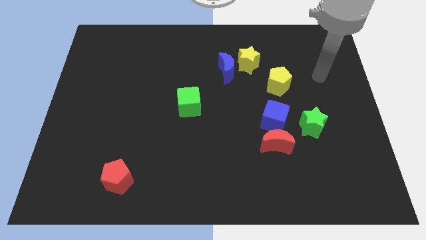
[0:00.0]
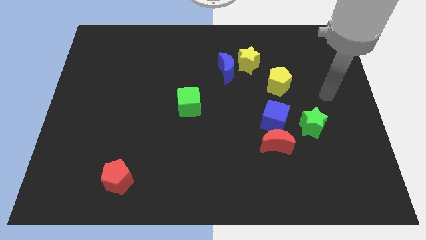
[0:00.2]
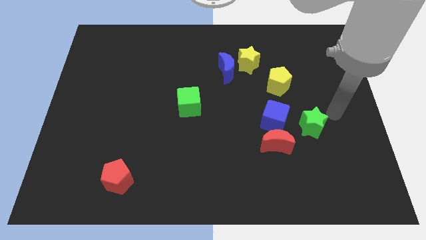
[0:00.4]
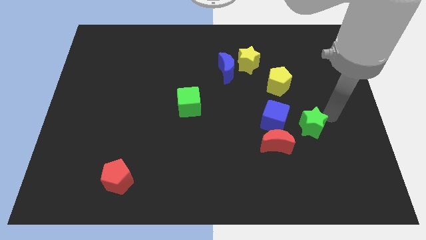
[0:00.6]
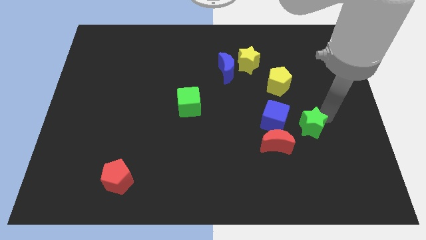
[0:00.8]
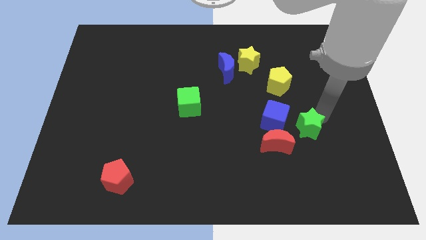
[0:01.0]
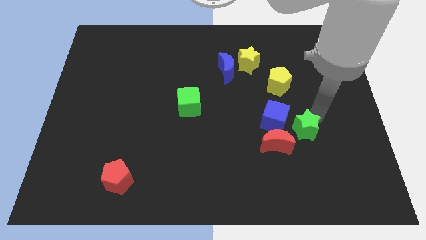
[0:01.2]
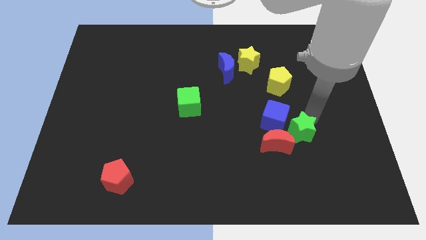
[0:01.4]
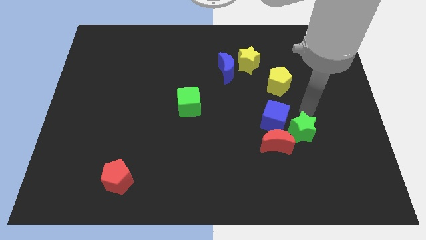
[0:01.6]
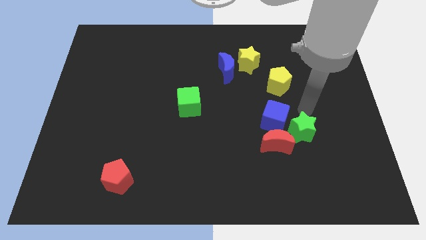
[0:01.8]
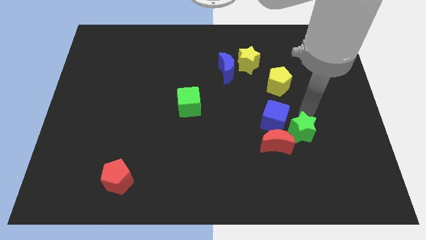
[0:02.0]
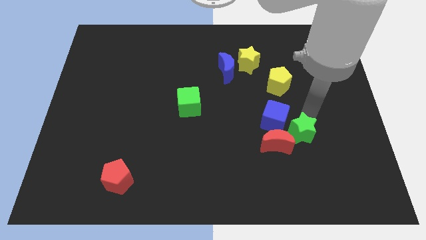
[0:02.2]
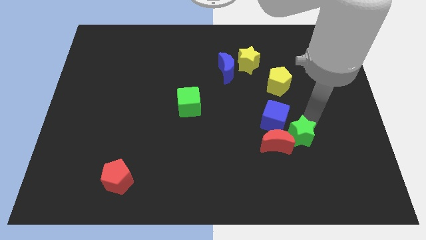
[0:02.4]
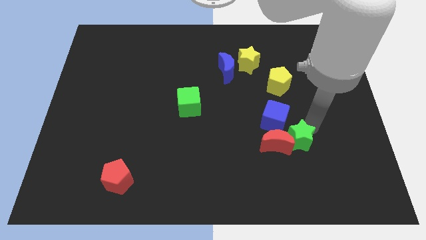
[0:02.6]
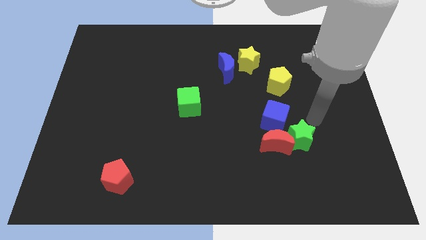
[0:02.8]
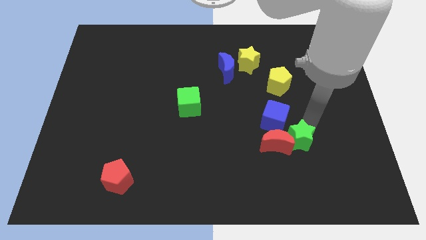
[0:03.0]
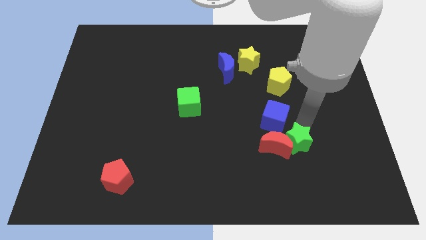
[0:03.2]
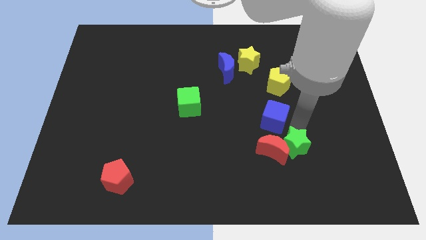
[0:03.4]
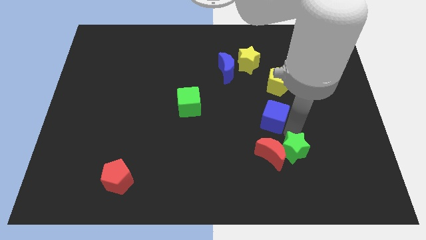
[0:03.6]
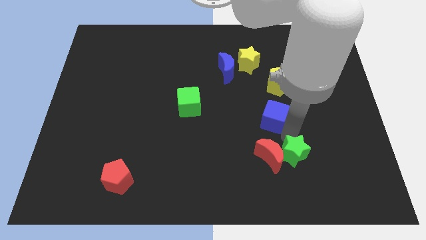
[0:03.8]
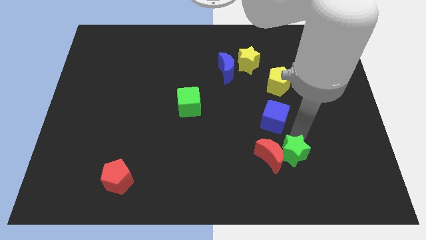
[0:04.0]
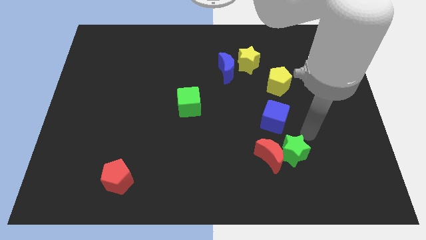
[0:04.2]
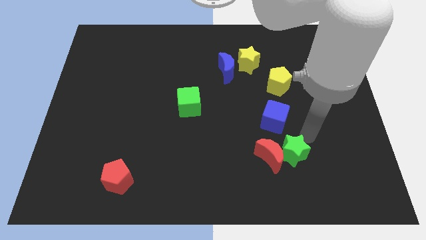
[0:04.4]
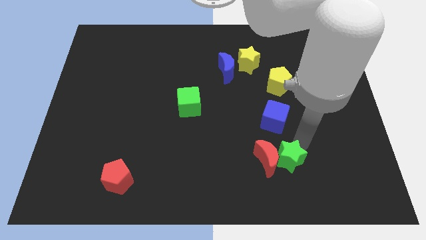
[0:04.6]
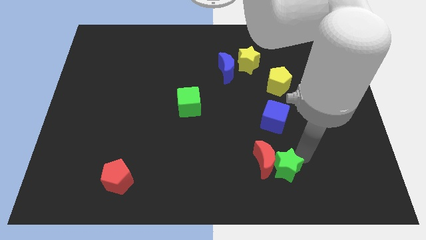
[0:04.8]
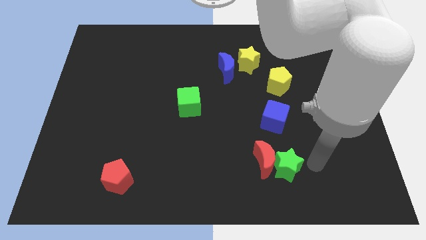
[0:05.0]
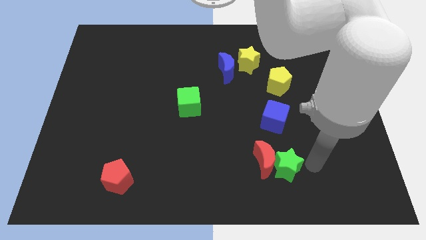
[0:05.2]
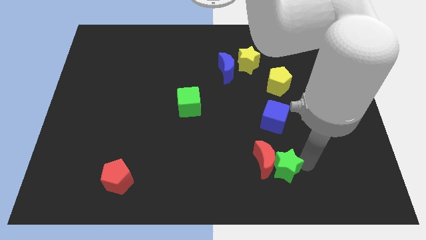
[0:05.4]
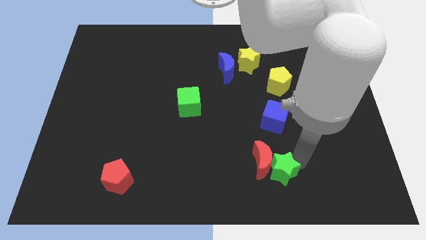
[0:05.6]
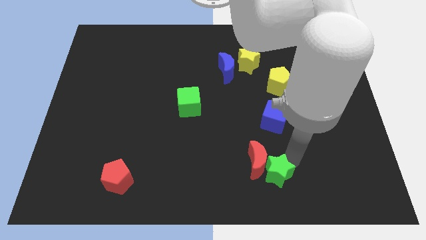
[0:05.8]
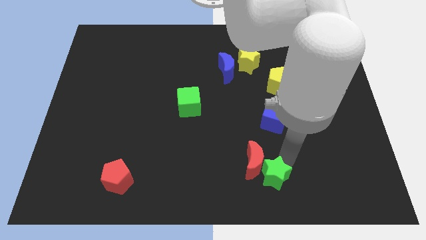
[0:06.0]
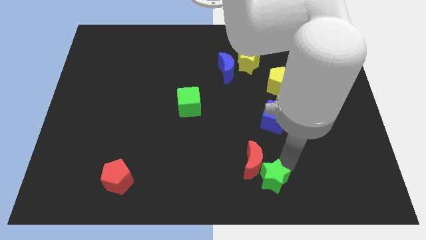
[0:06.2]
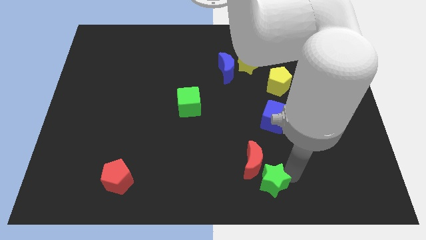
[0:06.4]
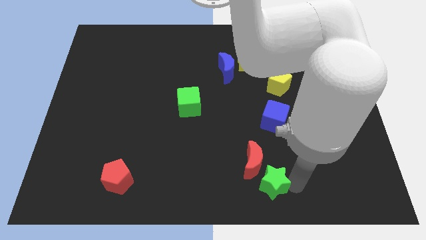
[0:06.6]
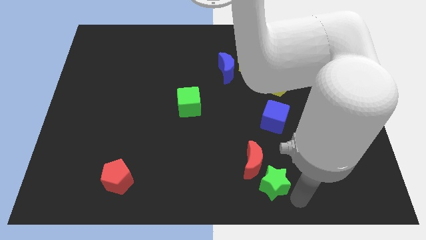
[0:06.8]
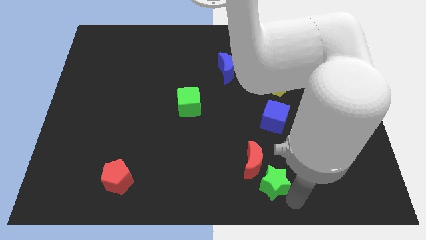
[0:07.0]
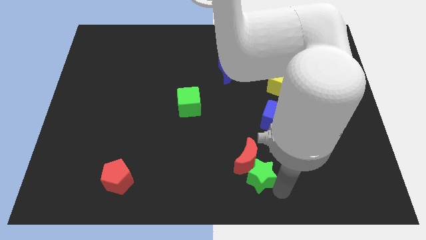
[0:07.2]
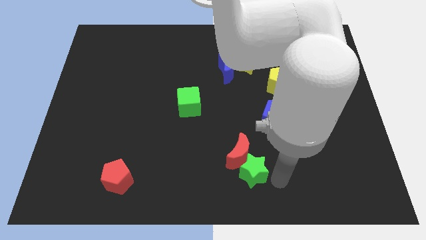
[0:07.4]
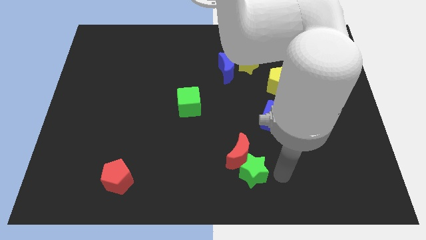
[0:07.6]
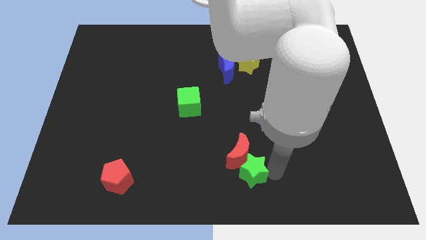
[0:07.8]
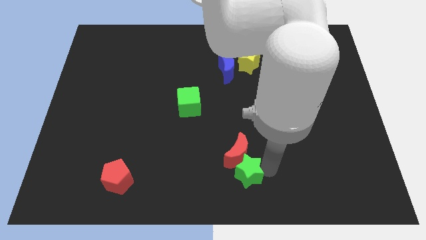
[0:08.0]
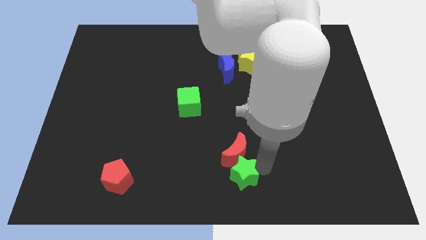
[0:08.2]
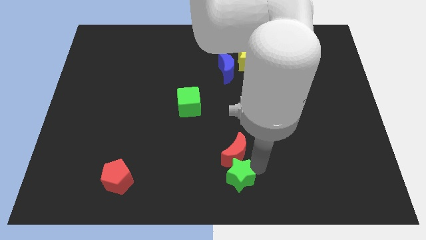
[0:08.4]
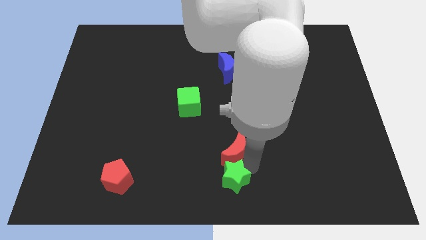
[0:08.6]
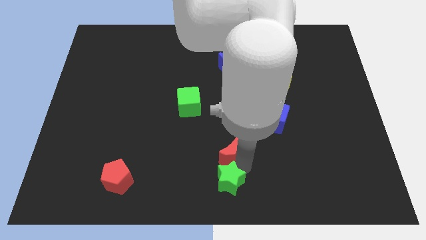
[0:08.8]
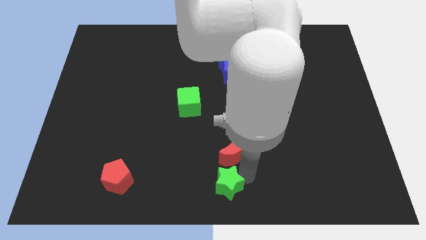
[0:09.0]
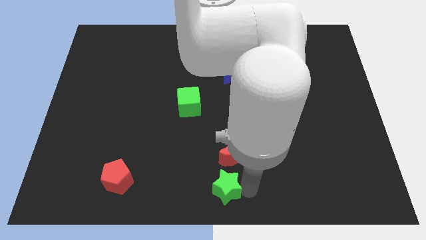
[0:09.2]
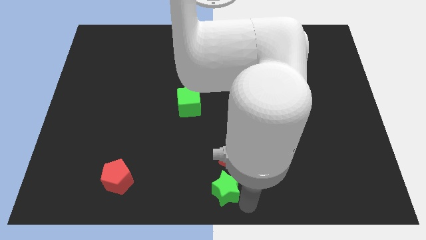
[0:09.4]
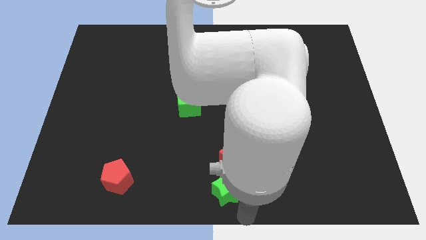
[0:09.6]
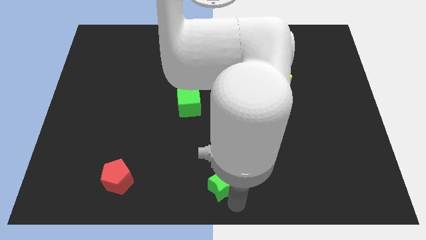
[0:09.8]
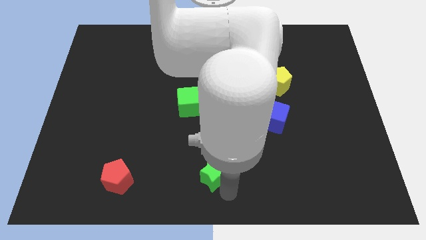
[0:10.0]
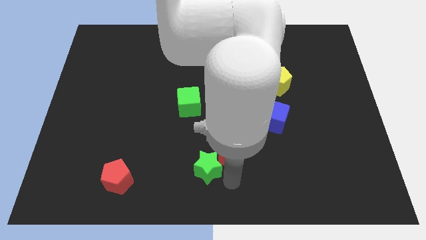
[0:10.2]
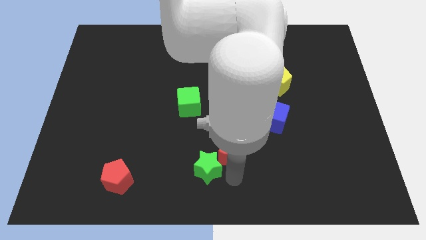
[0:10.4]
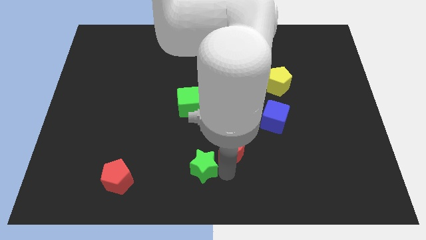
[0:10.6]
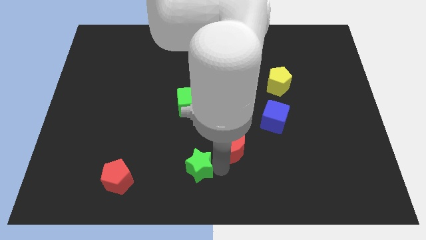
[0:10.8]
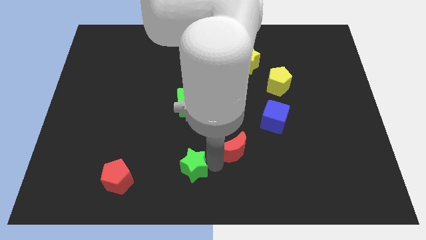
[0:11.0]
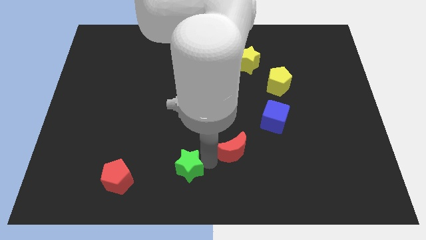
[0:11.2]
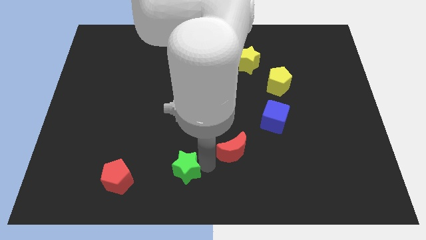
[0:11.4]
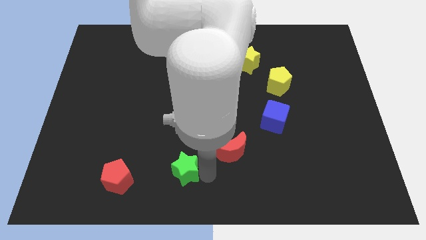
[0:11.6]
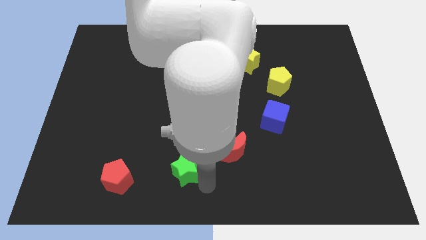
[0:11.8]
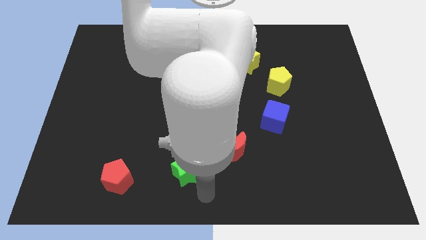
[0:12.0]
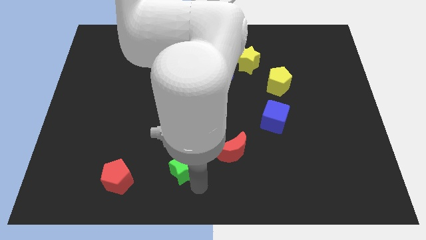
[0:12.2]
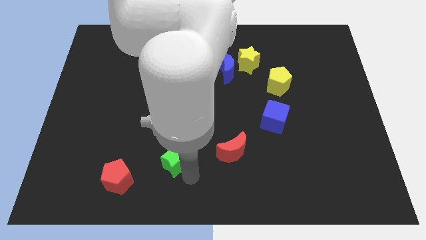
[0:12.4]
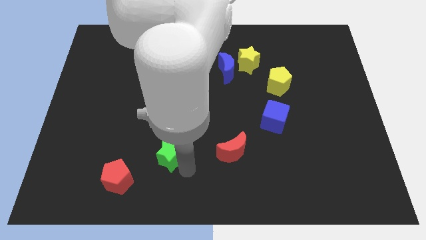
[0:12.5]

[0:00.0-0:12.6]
put the green star diagonally up and to the right of the red pentagon

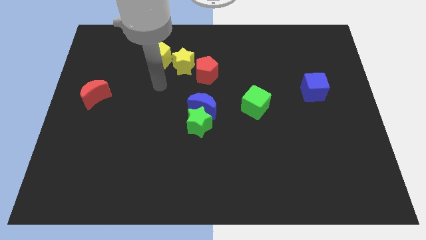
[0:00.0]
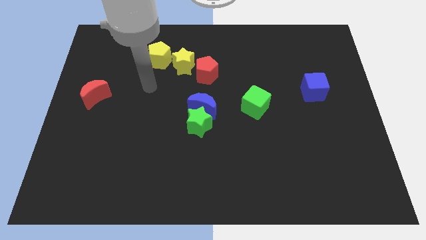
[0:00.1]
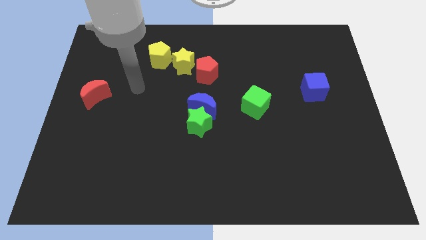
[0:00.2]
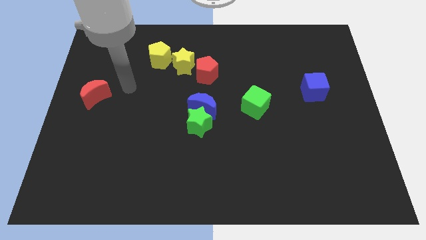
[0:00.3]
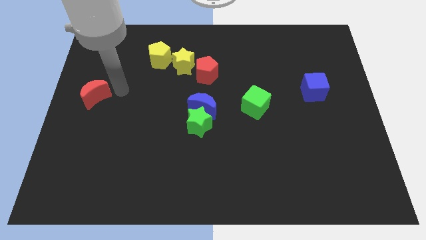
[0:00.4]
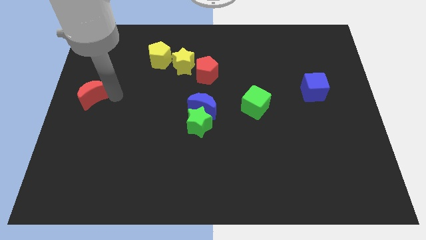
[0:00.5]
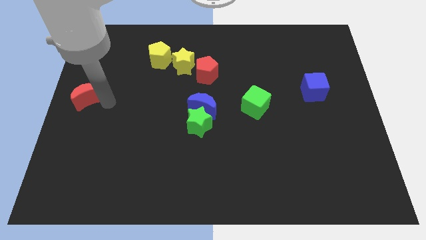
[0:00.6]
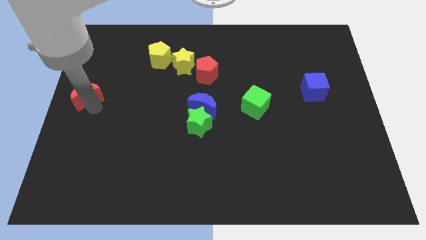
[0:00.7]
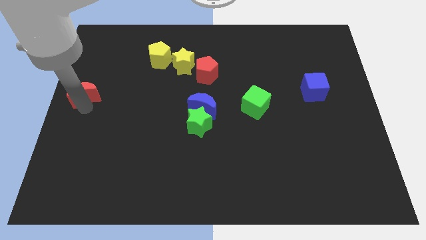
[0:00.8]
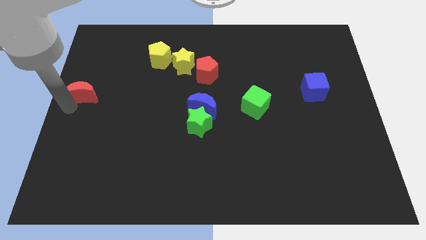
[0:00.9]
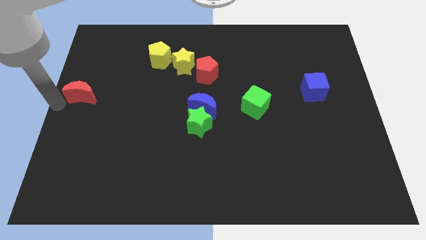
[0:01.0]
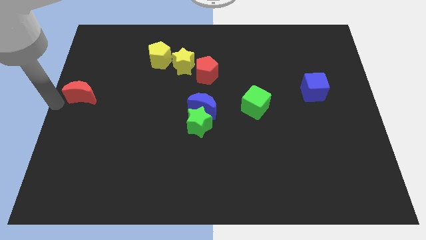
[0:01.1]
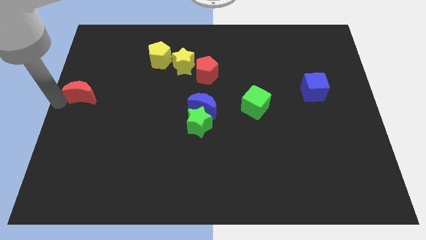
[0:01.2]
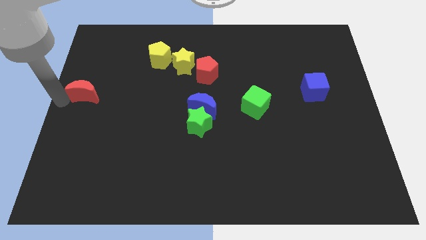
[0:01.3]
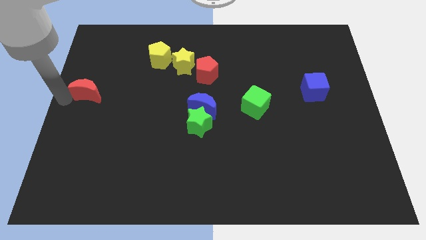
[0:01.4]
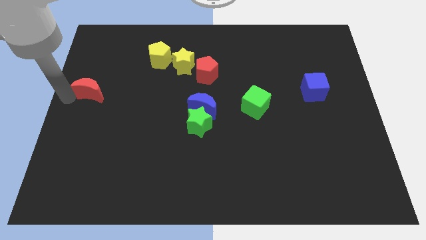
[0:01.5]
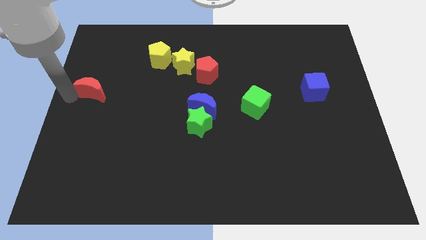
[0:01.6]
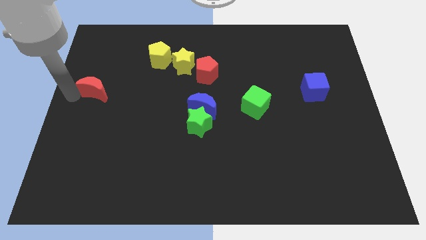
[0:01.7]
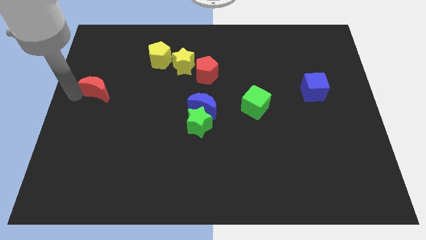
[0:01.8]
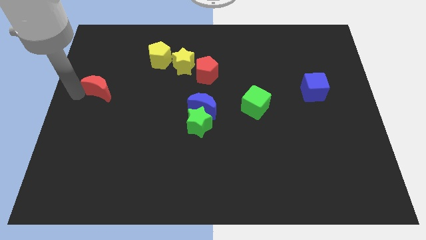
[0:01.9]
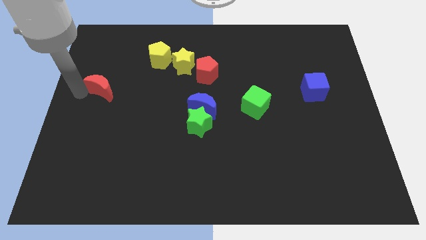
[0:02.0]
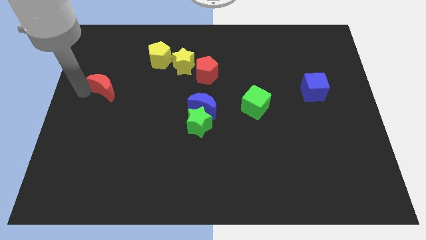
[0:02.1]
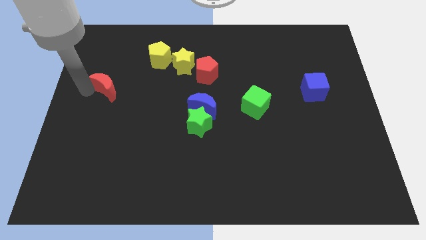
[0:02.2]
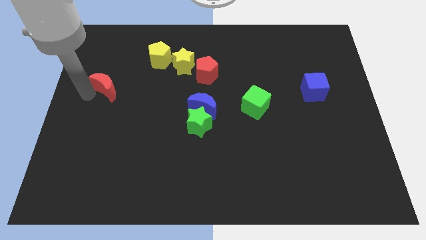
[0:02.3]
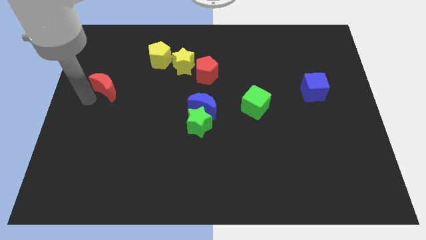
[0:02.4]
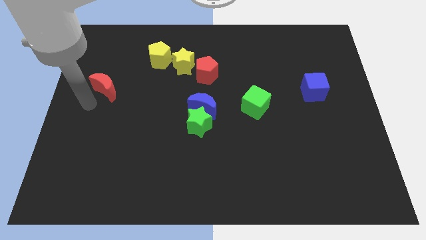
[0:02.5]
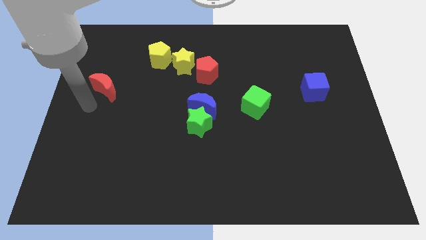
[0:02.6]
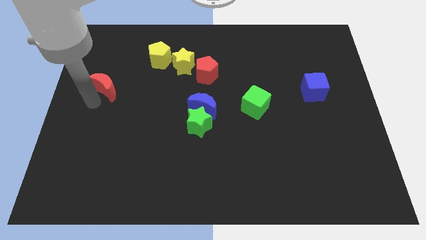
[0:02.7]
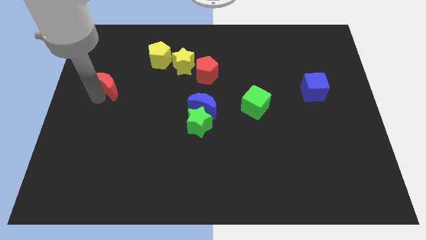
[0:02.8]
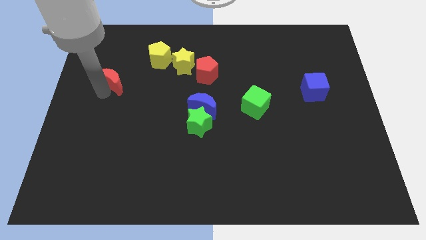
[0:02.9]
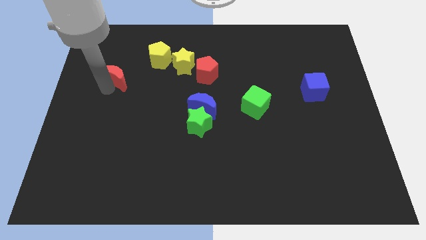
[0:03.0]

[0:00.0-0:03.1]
slide the red moon to the bottom left of the yellow pentagon
